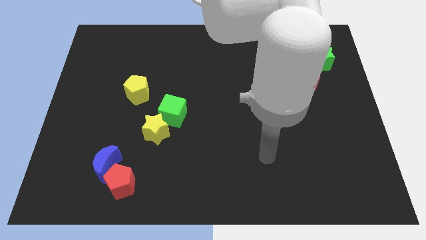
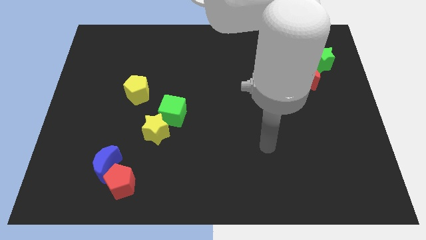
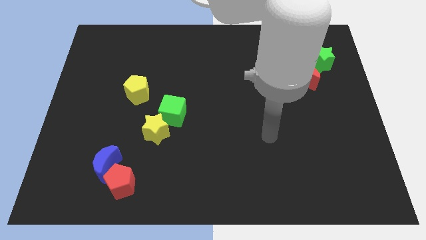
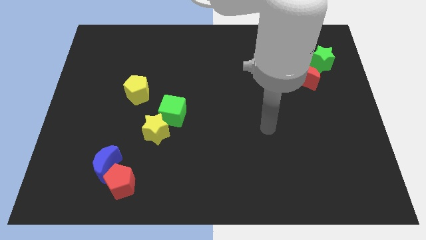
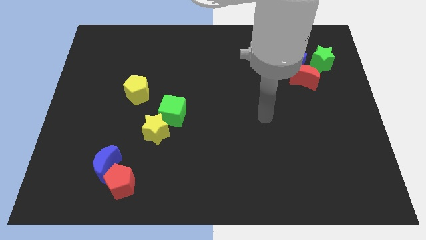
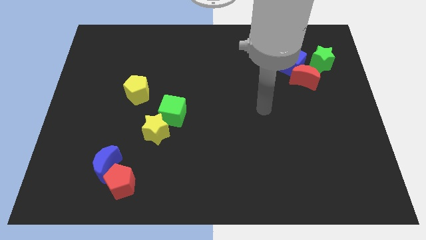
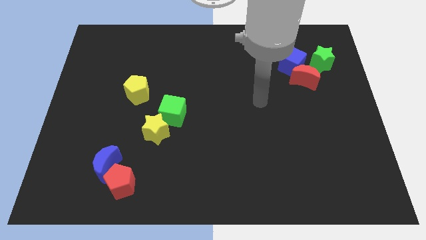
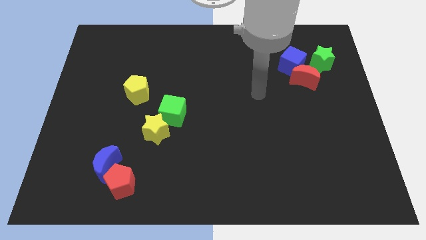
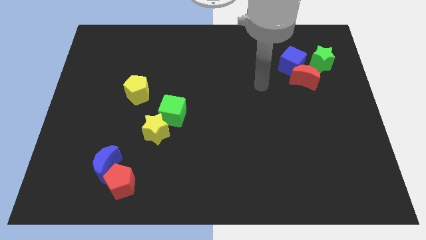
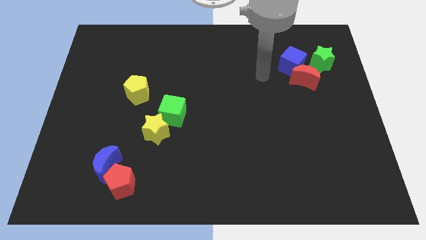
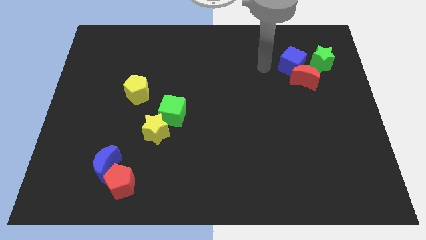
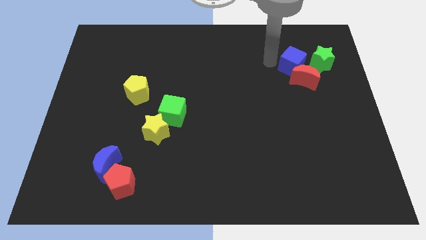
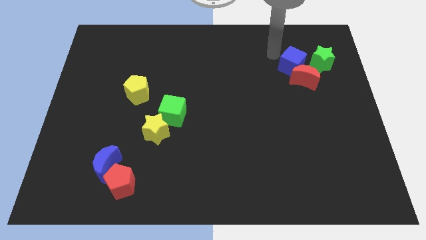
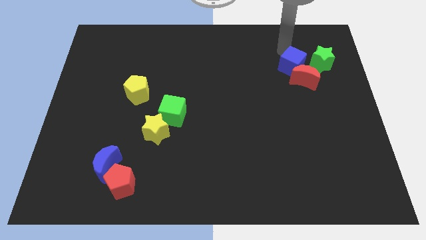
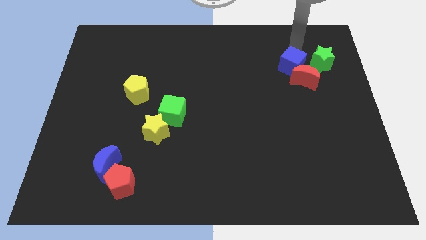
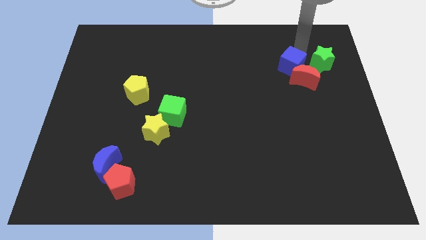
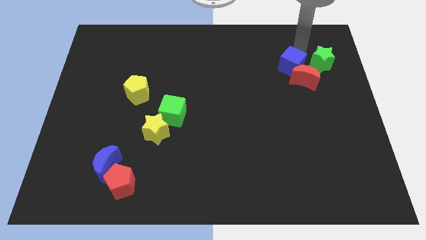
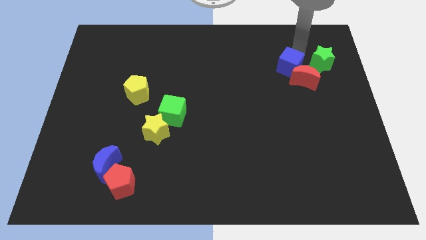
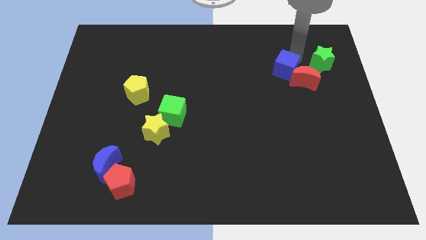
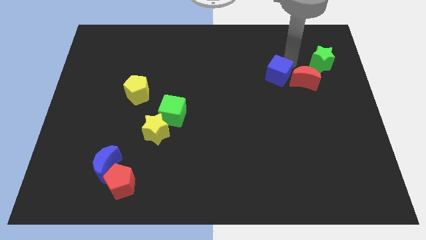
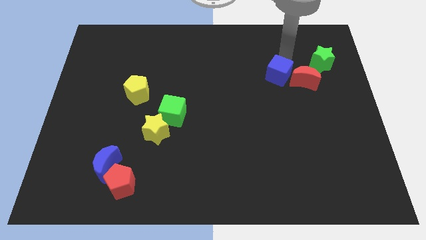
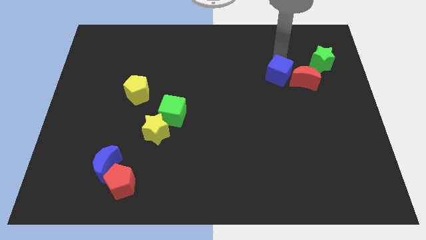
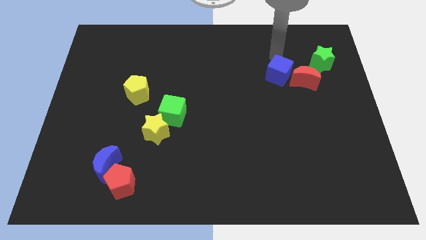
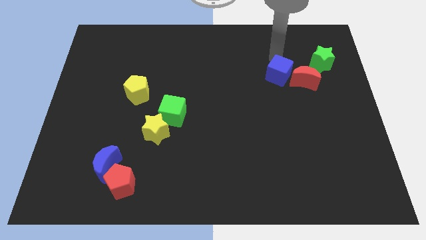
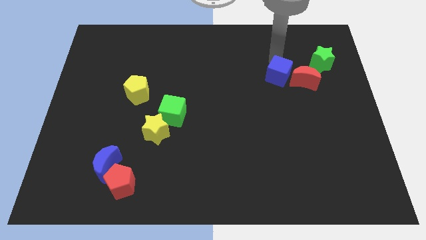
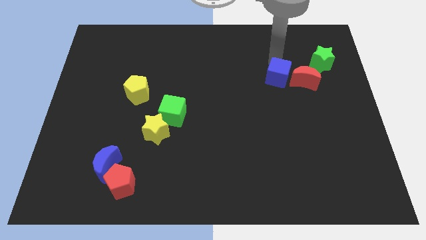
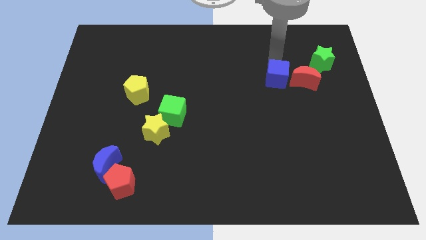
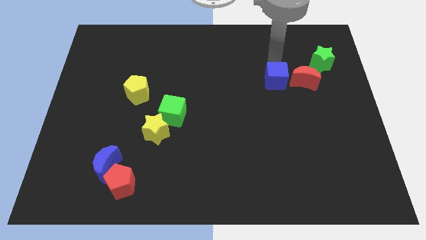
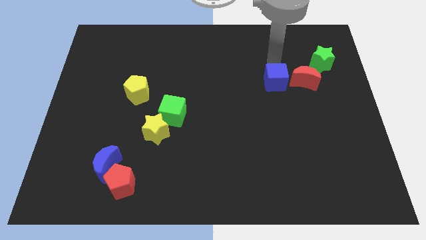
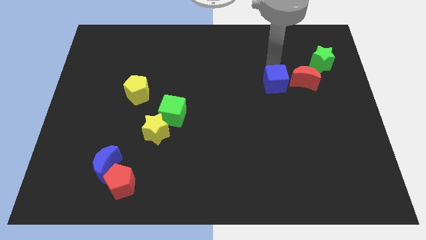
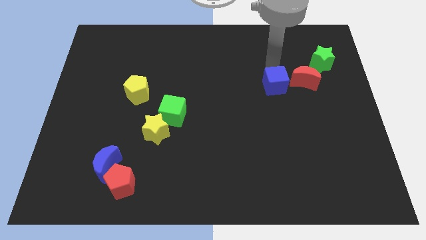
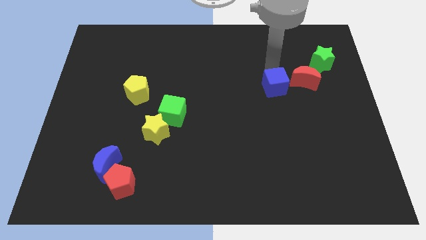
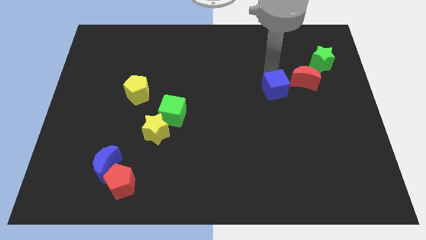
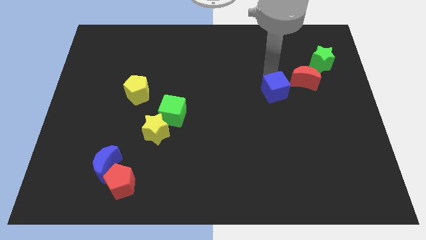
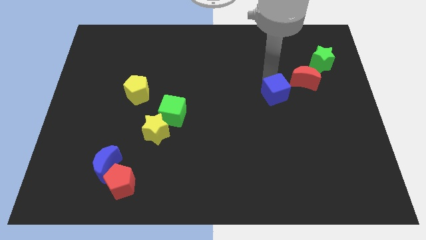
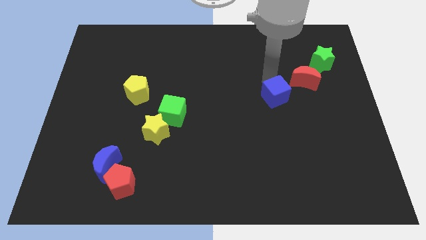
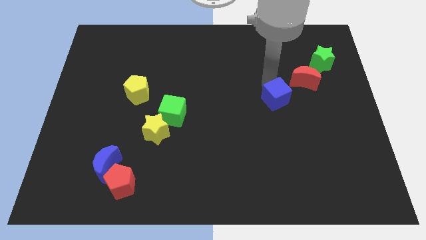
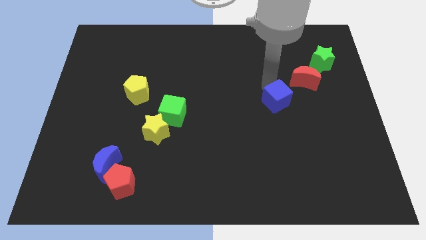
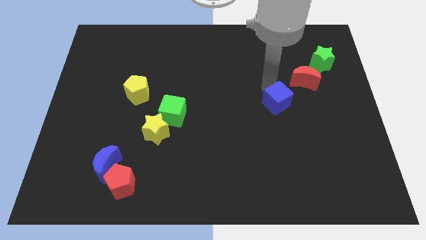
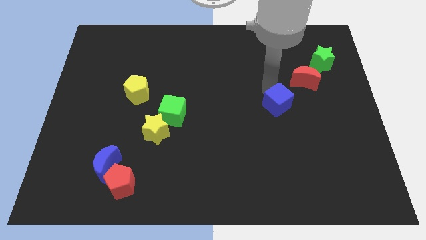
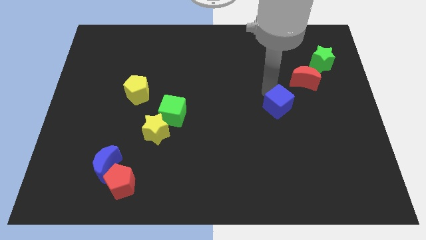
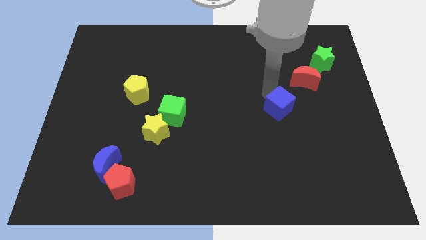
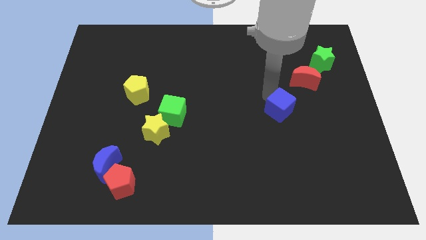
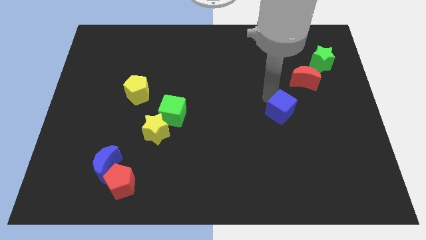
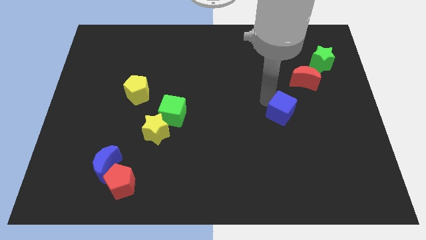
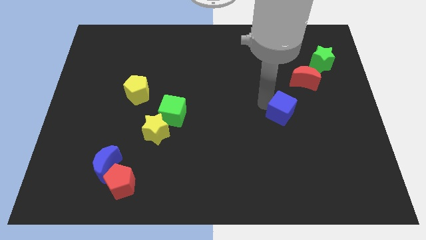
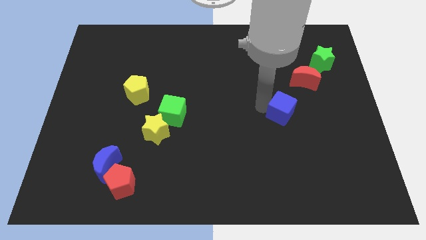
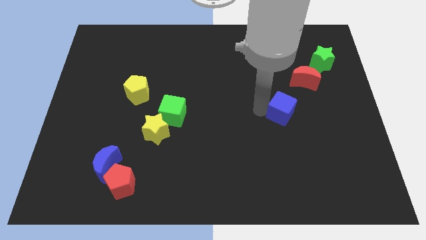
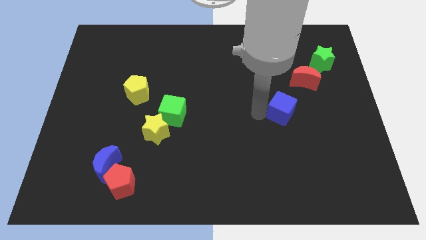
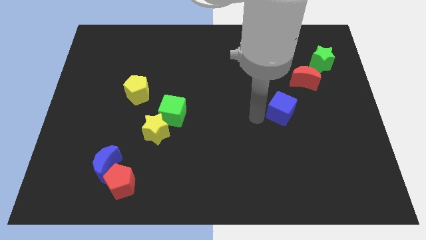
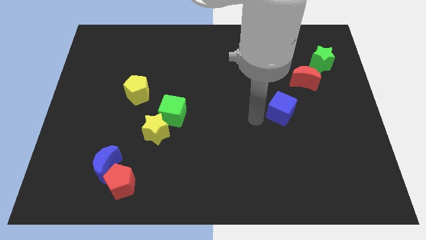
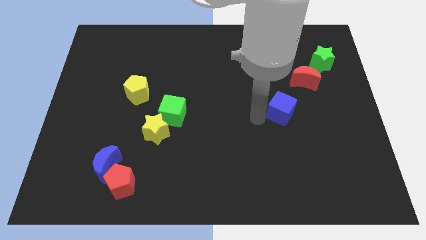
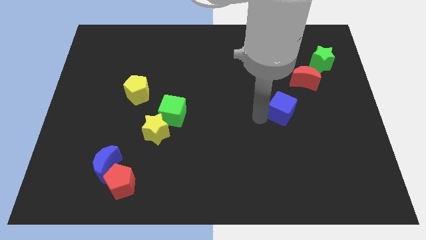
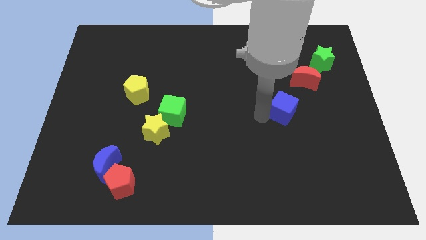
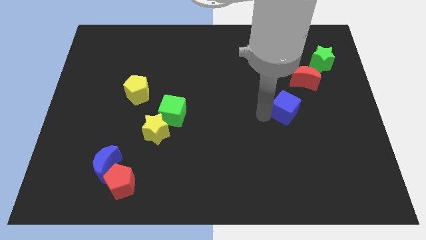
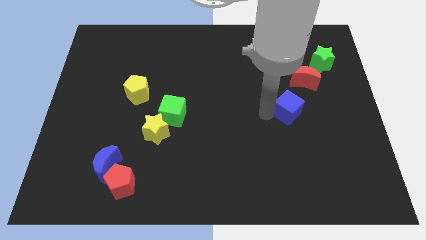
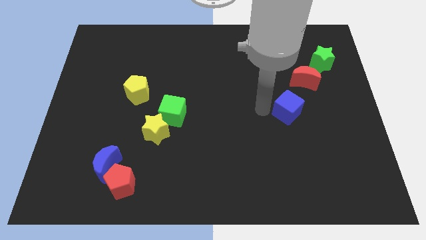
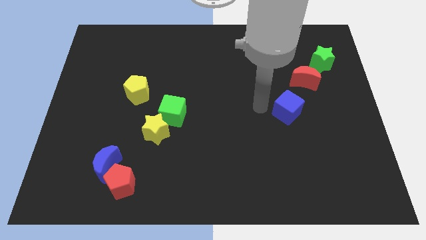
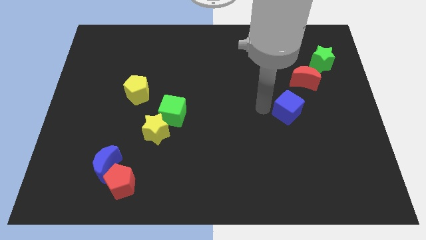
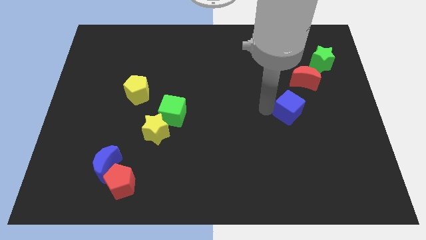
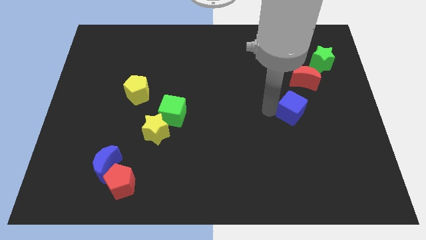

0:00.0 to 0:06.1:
move the blue cube to the bottom of the red moon

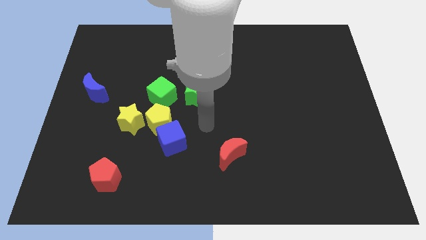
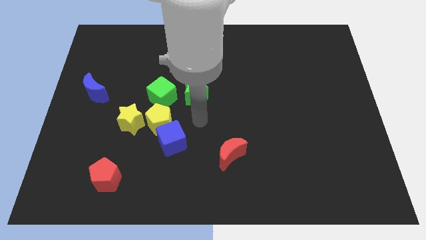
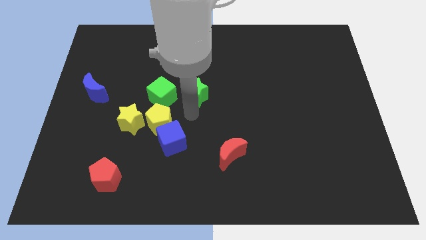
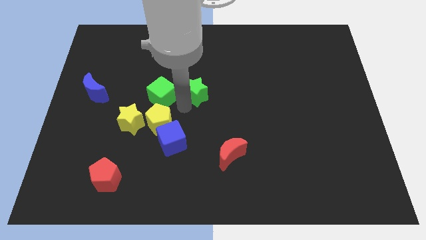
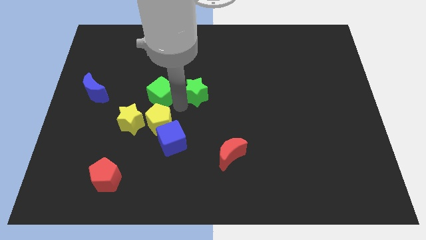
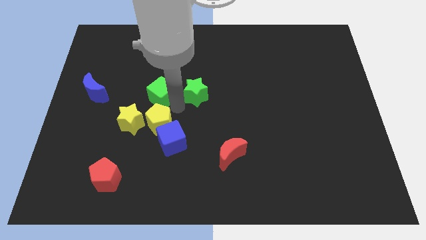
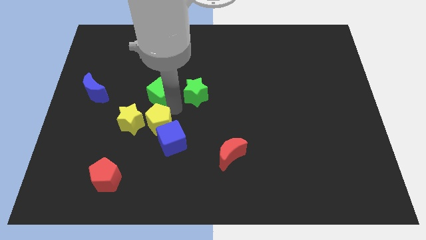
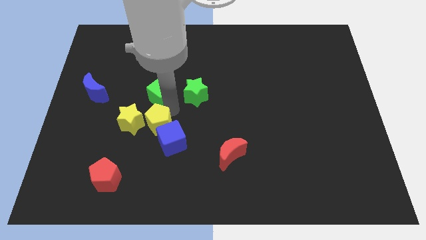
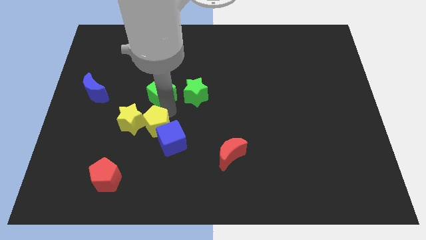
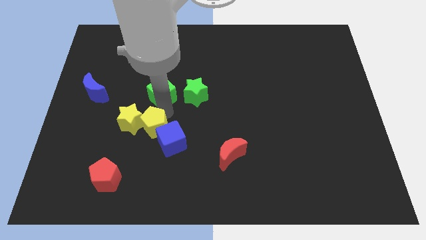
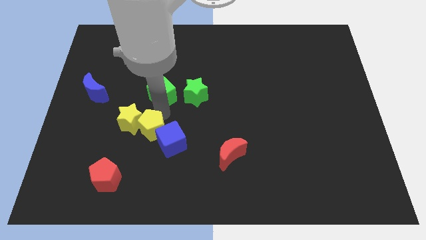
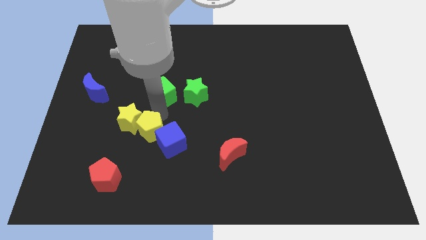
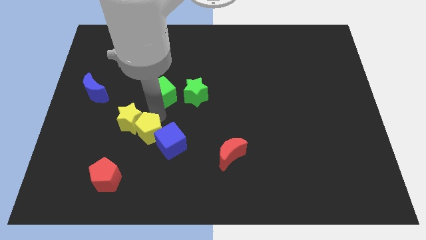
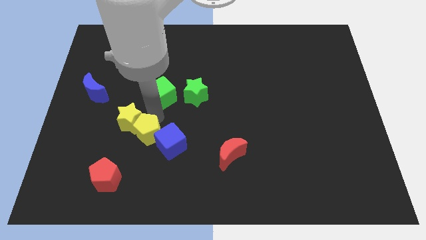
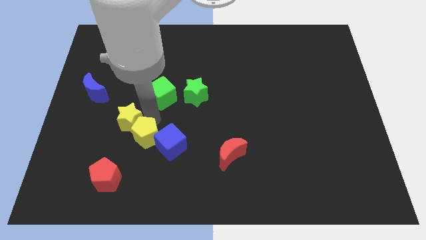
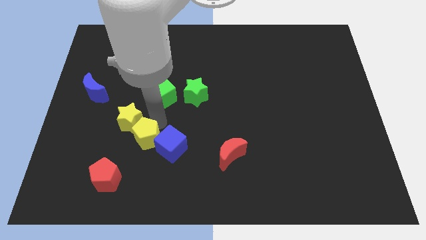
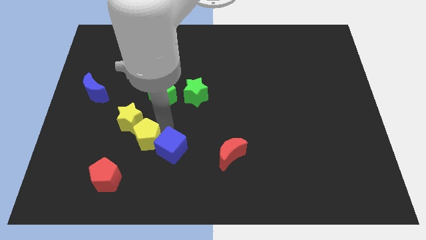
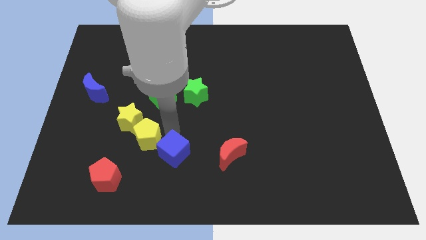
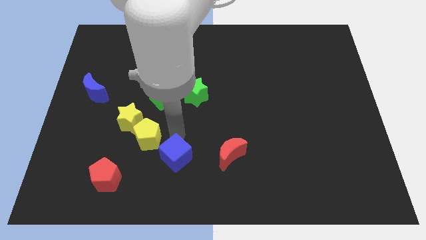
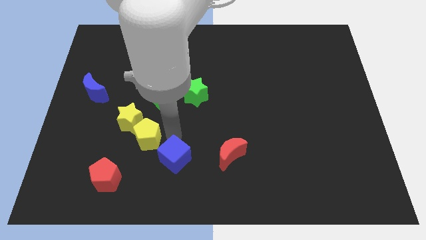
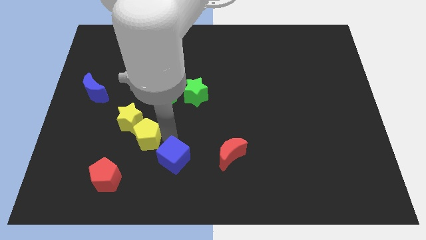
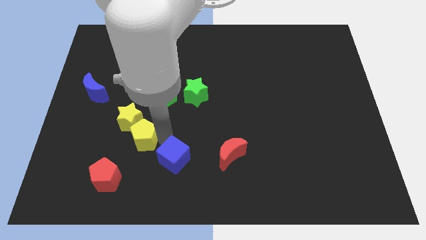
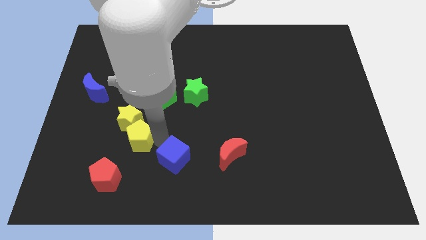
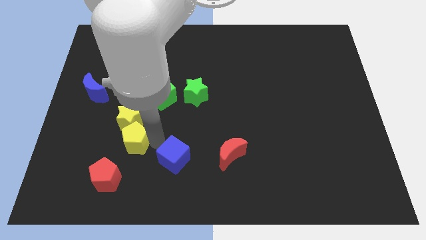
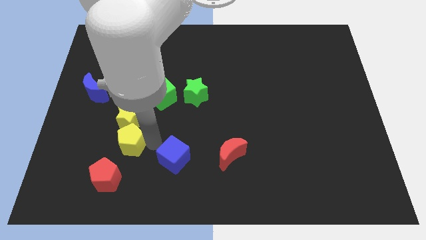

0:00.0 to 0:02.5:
move the yellow pentagon diagonally down and to the left of the yellow star
